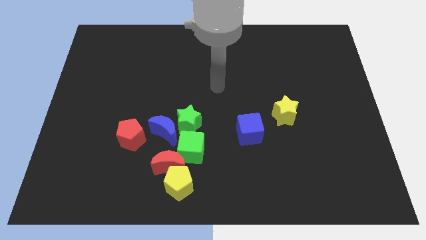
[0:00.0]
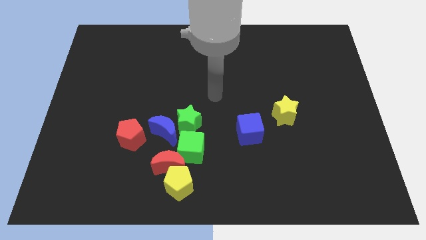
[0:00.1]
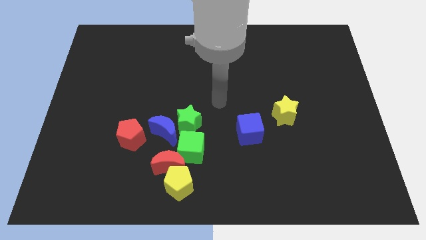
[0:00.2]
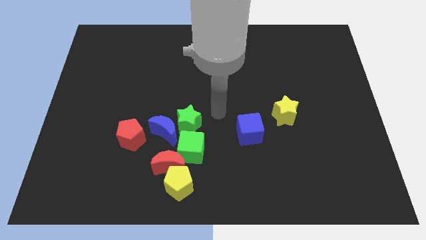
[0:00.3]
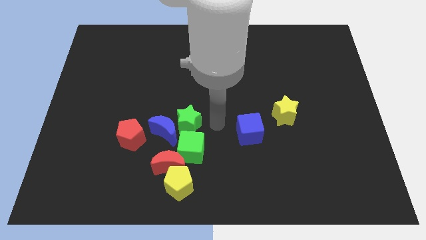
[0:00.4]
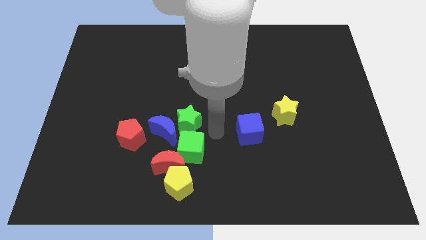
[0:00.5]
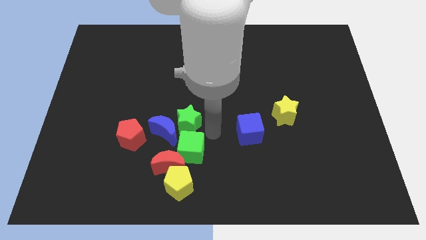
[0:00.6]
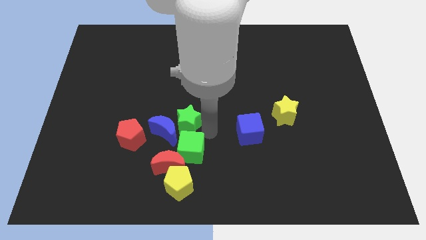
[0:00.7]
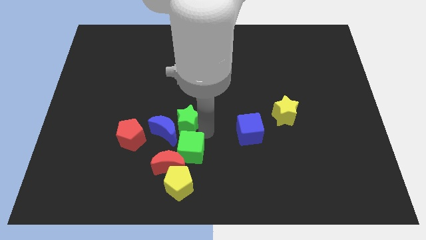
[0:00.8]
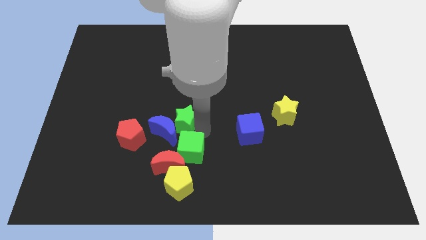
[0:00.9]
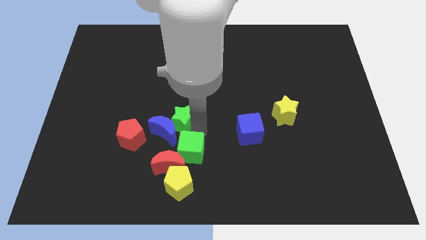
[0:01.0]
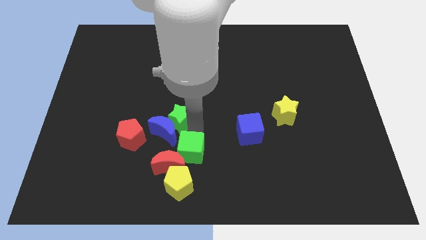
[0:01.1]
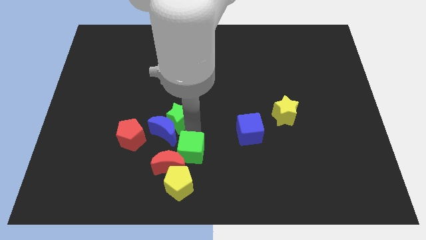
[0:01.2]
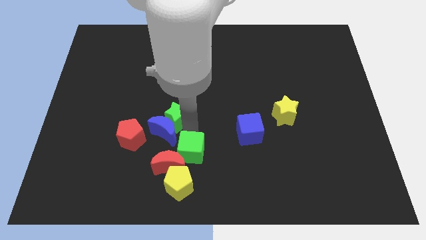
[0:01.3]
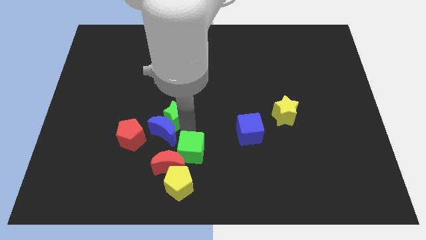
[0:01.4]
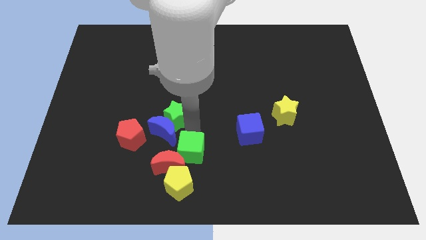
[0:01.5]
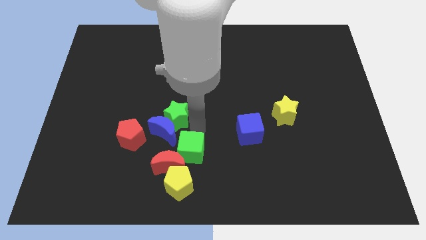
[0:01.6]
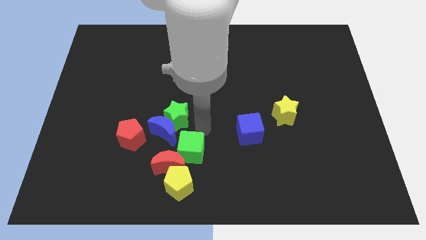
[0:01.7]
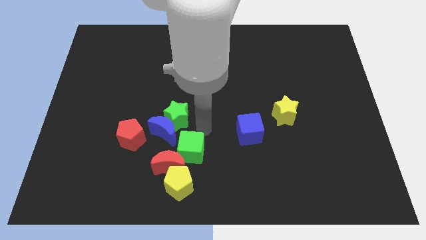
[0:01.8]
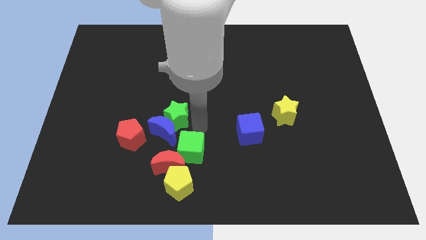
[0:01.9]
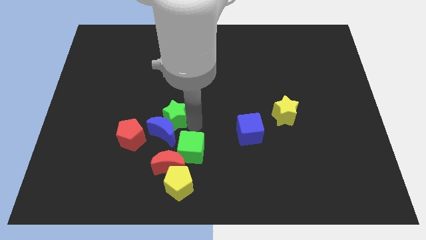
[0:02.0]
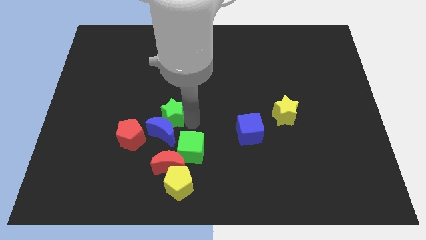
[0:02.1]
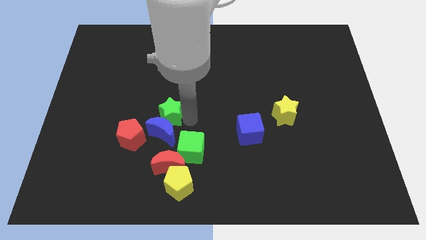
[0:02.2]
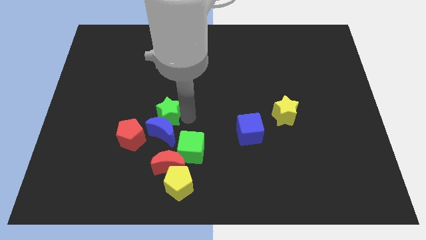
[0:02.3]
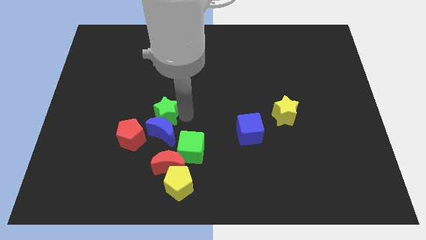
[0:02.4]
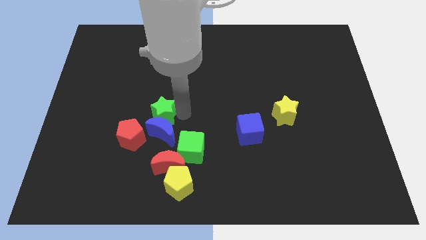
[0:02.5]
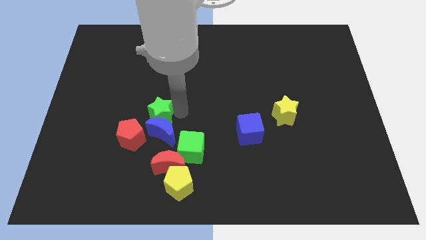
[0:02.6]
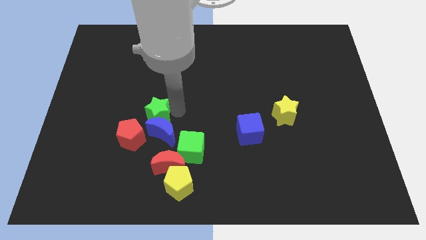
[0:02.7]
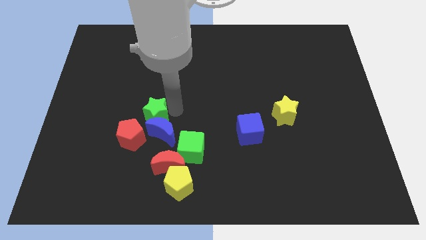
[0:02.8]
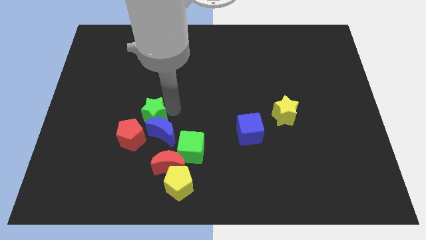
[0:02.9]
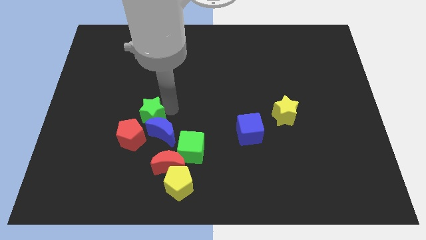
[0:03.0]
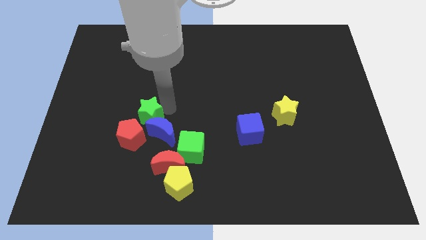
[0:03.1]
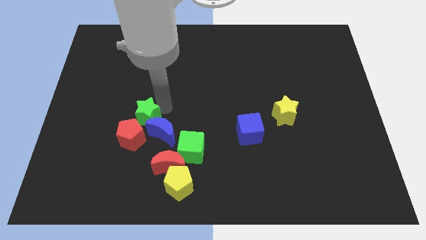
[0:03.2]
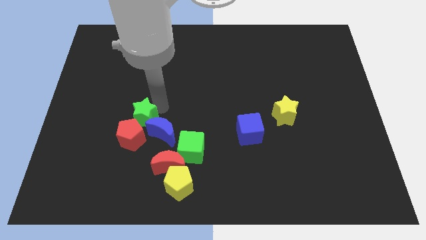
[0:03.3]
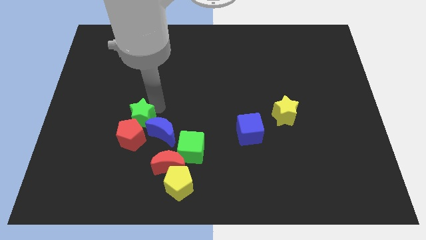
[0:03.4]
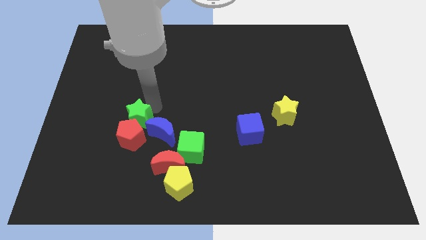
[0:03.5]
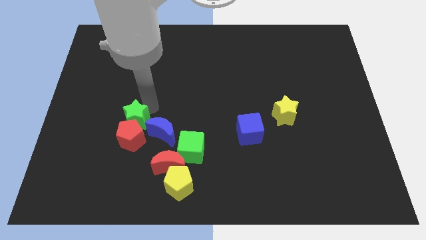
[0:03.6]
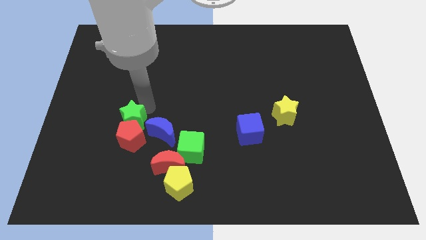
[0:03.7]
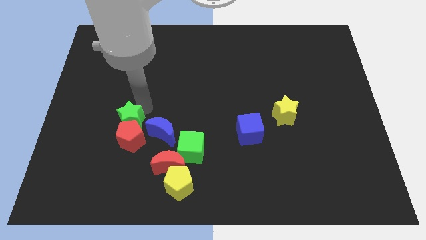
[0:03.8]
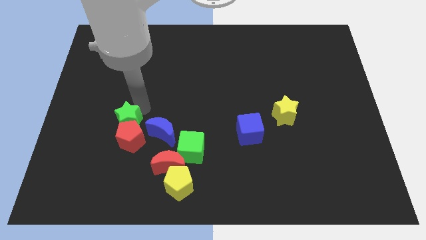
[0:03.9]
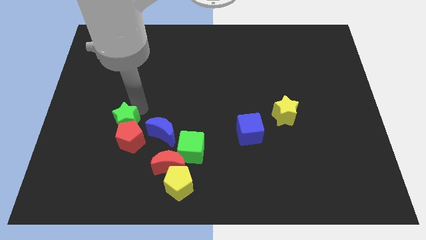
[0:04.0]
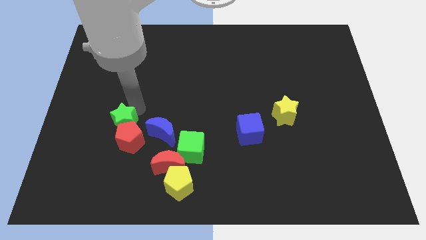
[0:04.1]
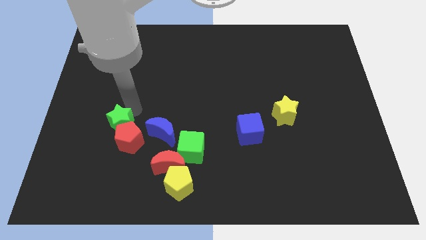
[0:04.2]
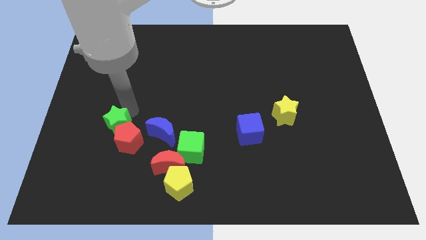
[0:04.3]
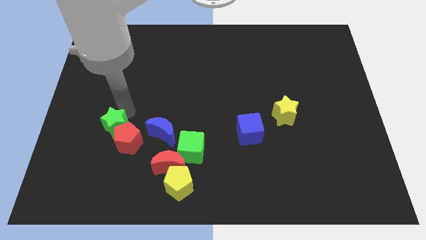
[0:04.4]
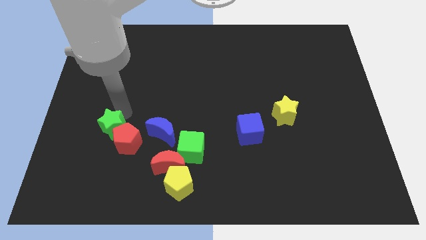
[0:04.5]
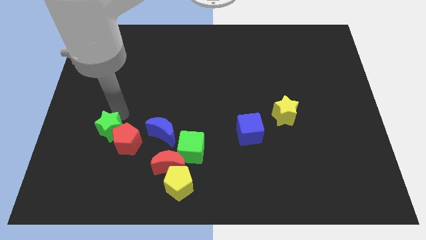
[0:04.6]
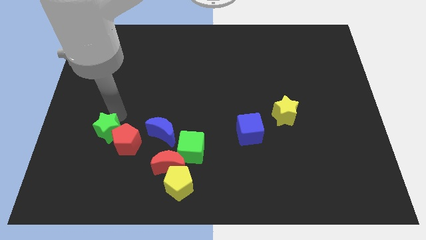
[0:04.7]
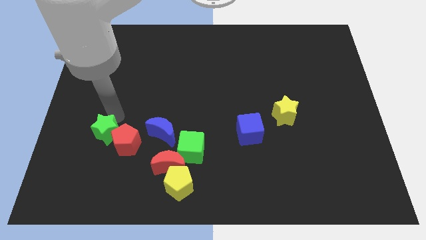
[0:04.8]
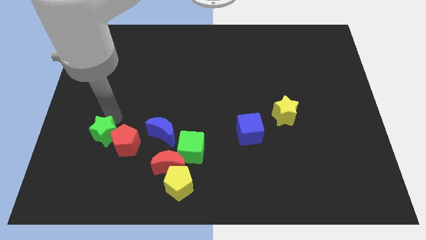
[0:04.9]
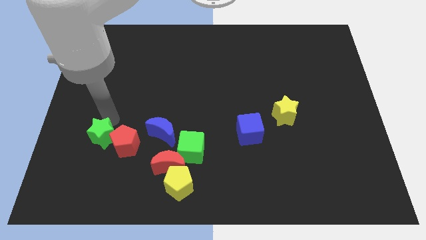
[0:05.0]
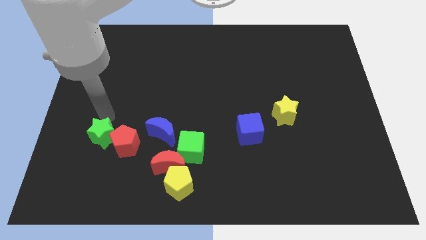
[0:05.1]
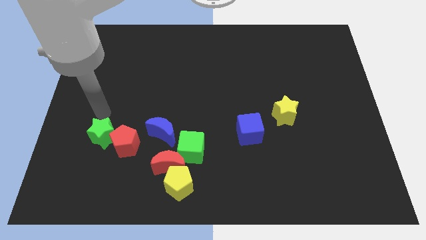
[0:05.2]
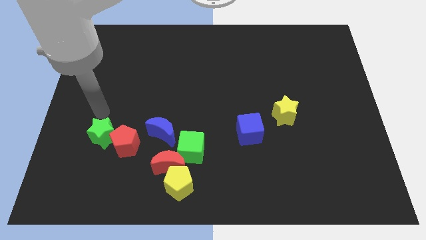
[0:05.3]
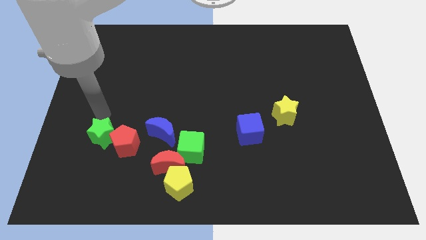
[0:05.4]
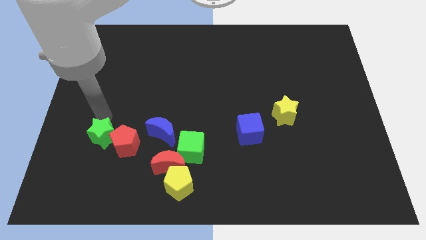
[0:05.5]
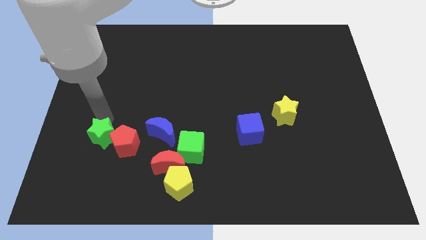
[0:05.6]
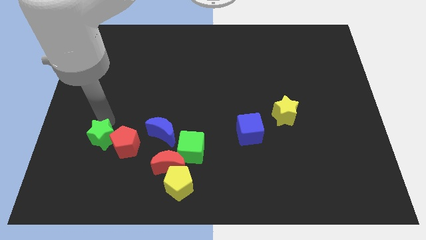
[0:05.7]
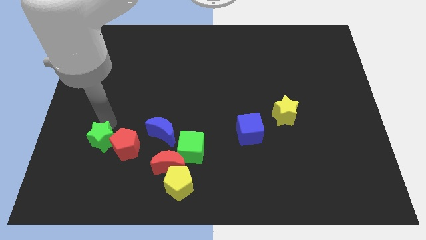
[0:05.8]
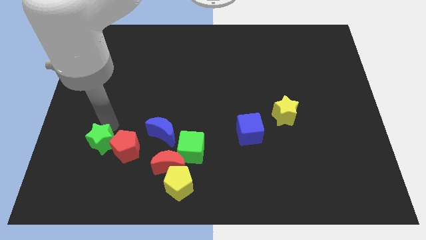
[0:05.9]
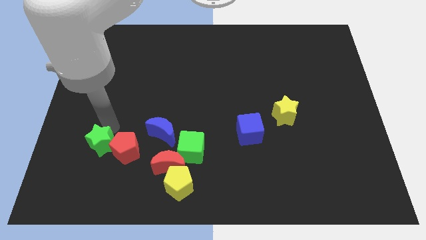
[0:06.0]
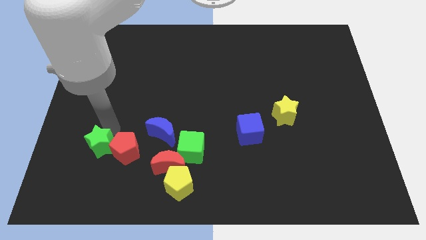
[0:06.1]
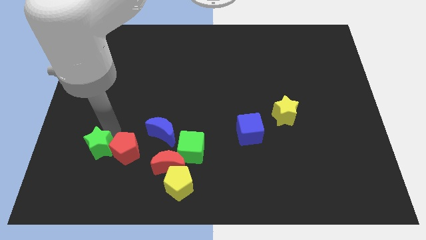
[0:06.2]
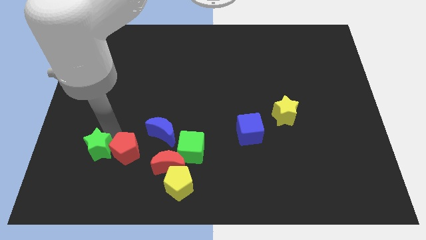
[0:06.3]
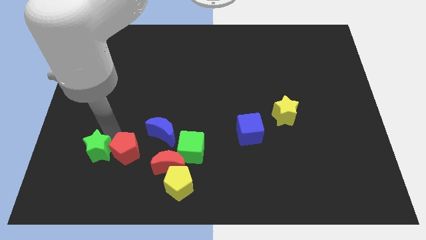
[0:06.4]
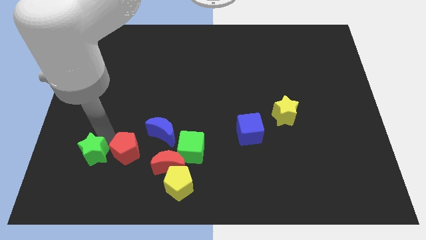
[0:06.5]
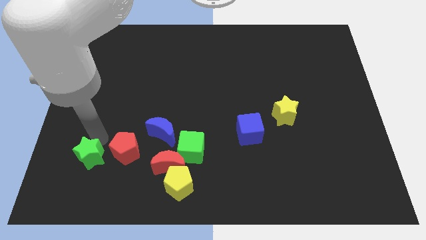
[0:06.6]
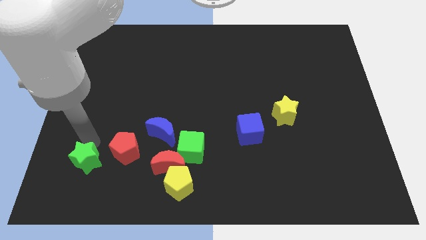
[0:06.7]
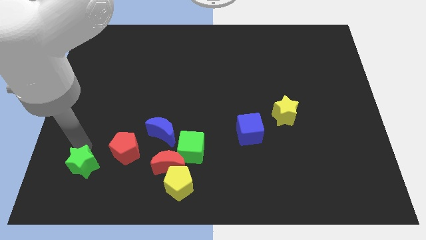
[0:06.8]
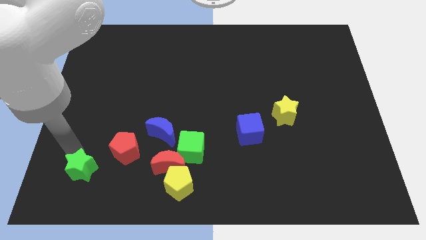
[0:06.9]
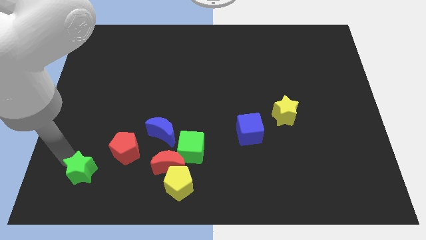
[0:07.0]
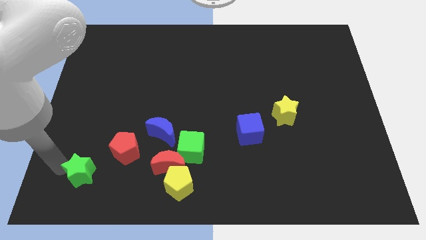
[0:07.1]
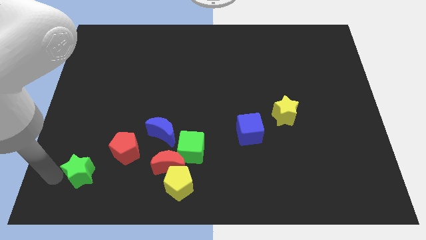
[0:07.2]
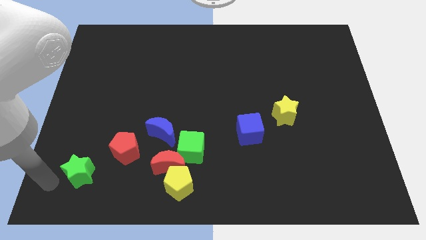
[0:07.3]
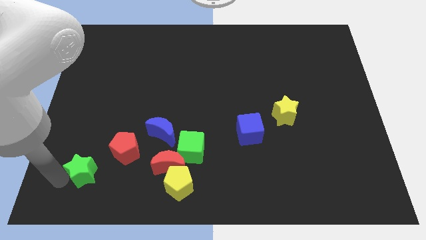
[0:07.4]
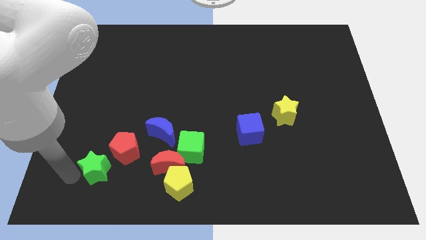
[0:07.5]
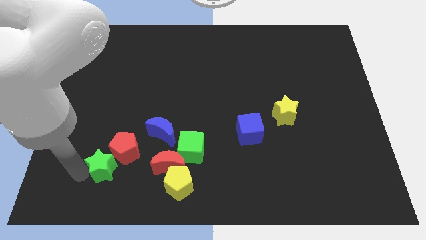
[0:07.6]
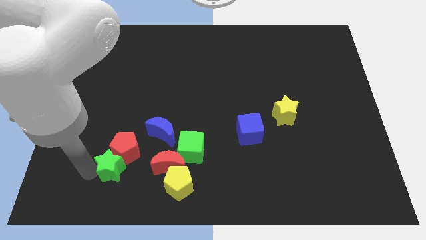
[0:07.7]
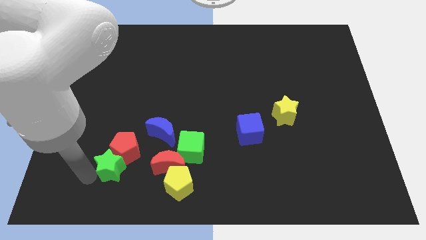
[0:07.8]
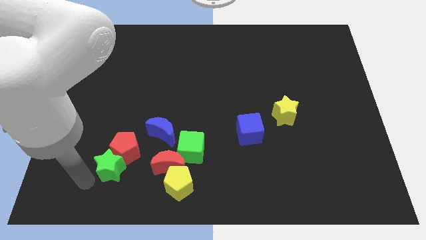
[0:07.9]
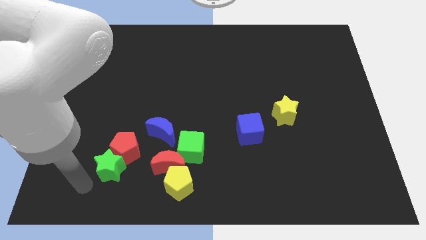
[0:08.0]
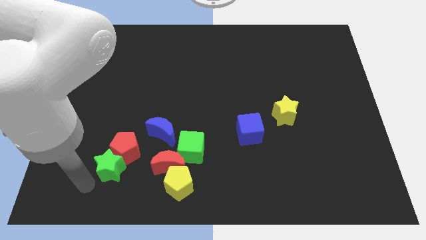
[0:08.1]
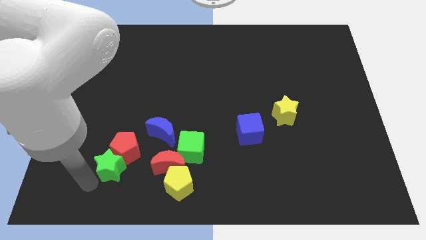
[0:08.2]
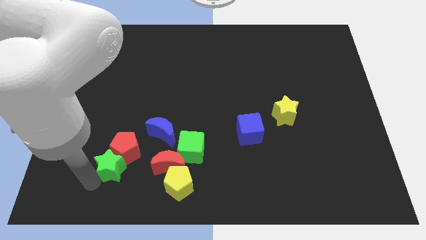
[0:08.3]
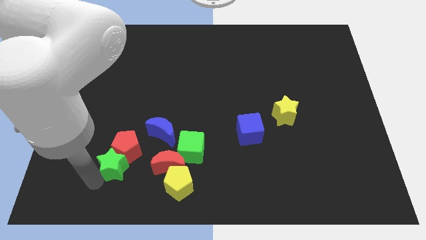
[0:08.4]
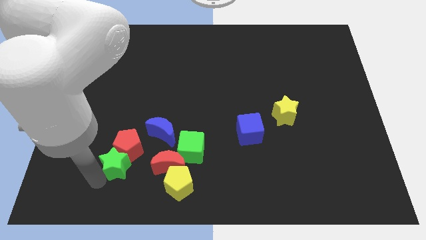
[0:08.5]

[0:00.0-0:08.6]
move the green star to the bottom right side of the red pentagon
